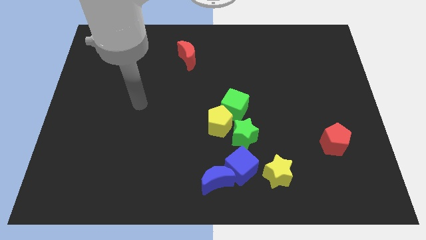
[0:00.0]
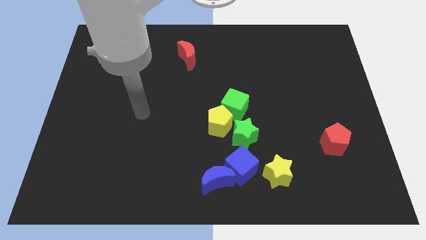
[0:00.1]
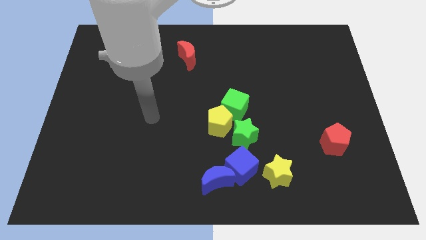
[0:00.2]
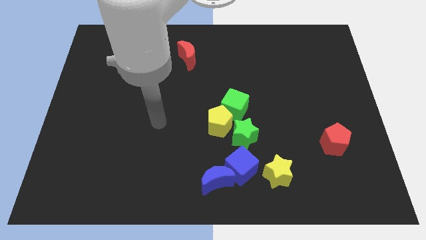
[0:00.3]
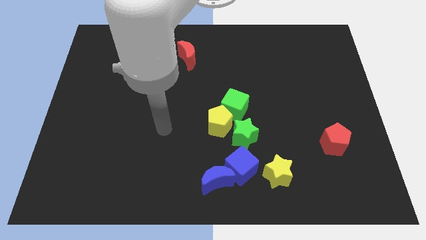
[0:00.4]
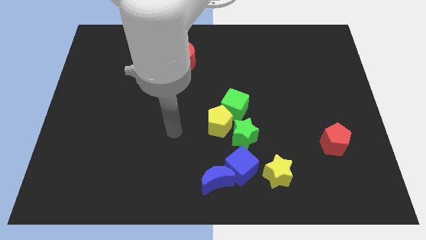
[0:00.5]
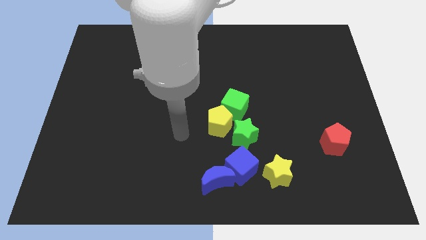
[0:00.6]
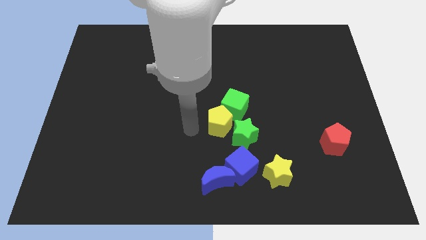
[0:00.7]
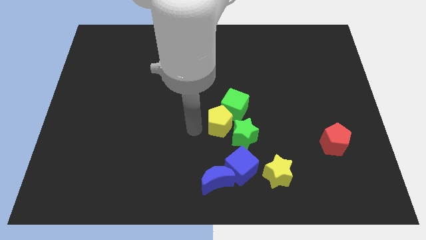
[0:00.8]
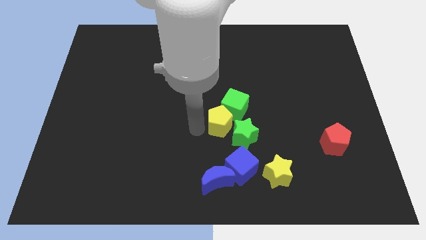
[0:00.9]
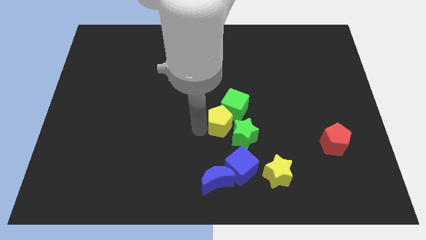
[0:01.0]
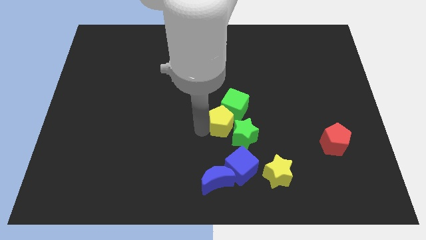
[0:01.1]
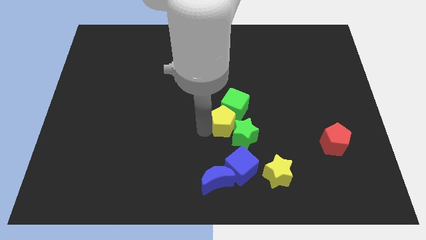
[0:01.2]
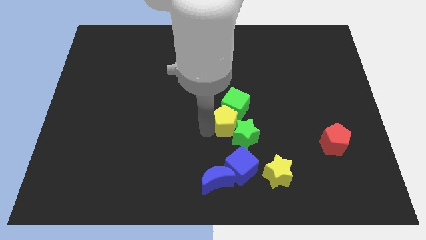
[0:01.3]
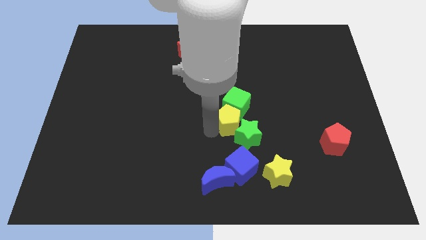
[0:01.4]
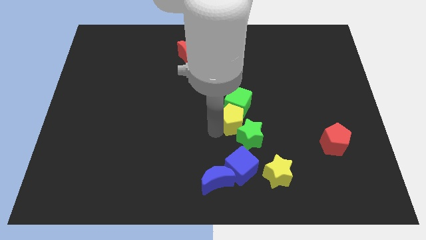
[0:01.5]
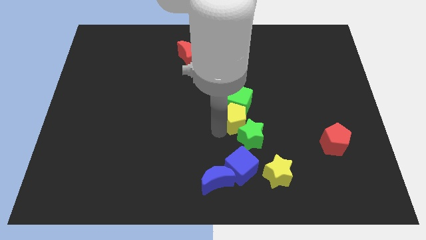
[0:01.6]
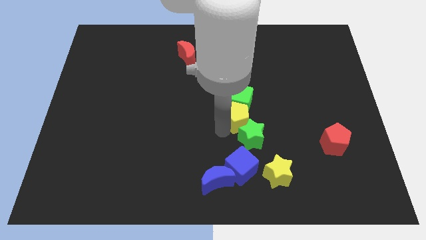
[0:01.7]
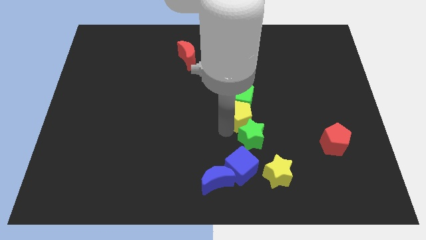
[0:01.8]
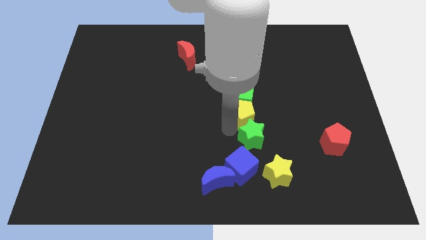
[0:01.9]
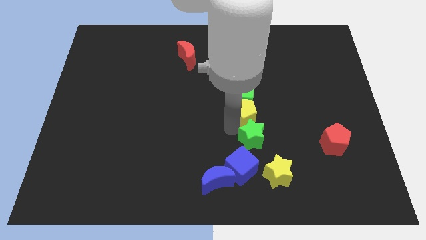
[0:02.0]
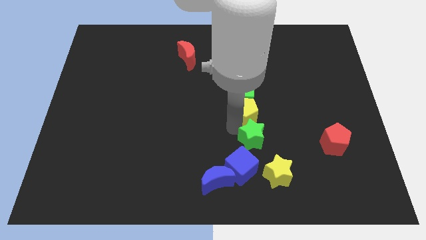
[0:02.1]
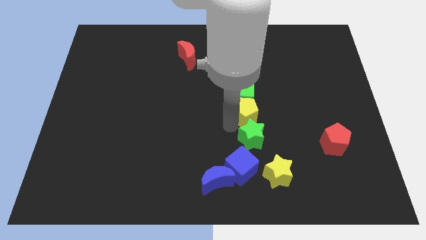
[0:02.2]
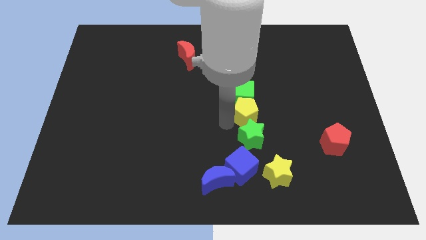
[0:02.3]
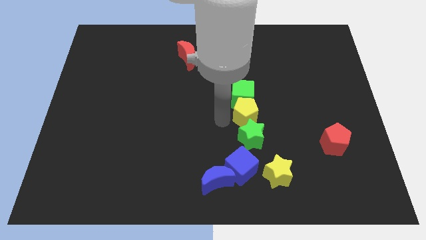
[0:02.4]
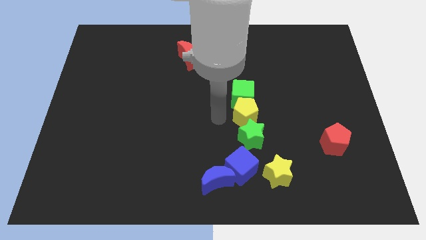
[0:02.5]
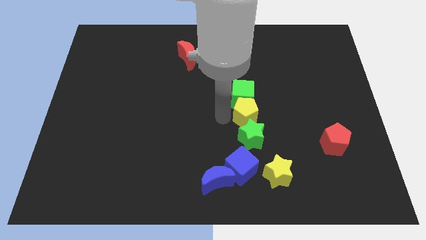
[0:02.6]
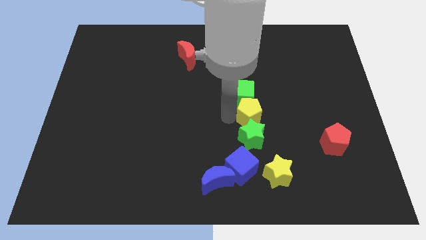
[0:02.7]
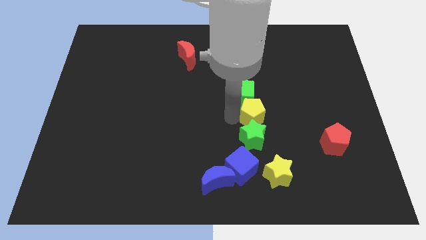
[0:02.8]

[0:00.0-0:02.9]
move the yellow pentagon upwards and then right somewhat

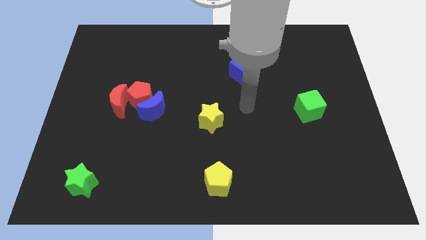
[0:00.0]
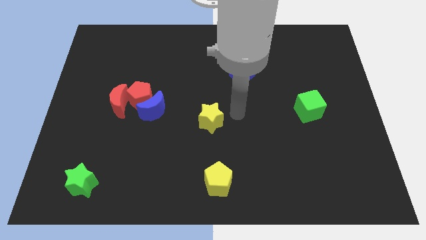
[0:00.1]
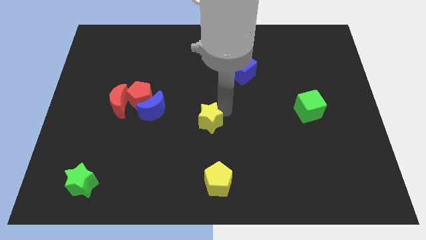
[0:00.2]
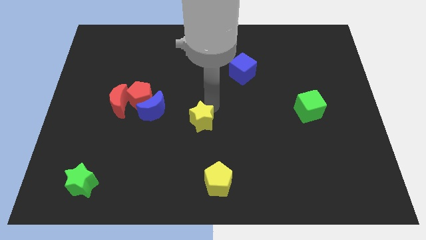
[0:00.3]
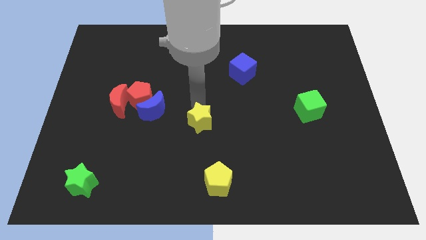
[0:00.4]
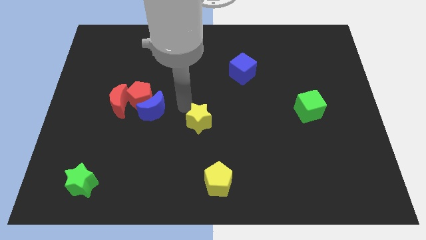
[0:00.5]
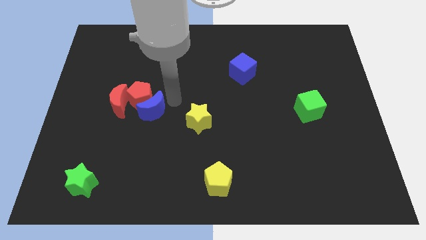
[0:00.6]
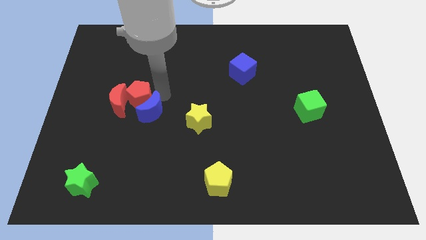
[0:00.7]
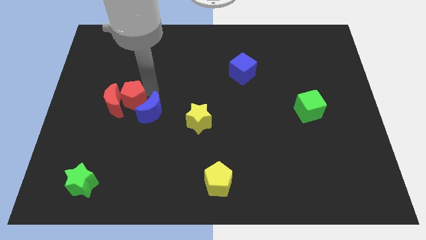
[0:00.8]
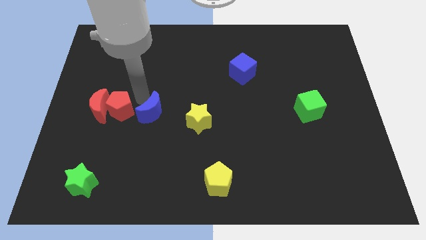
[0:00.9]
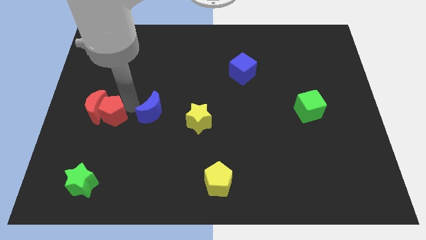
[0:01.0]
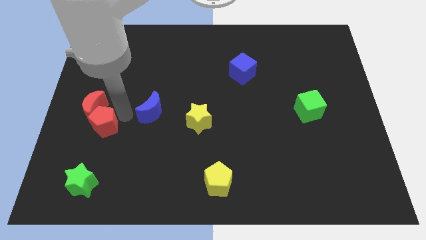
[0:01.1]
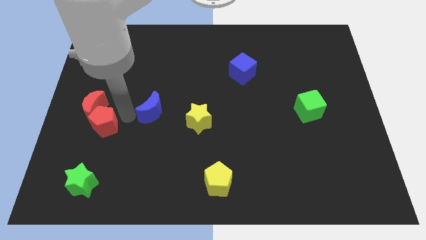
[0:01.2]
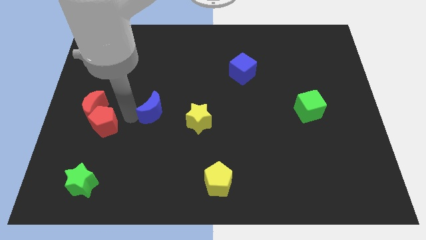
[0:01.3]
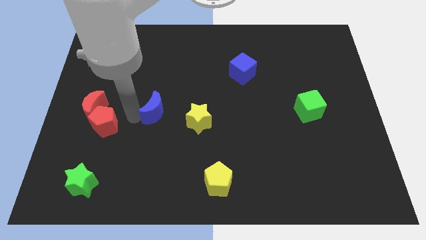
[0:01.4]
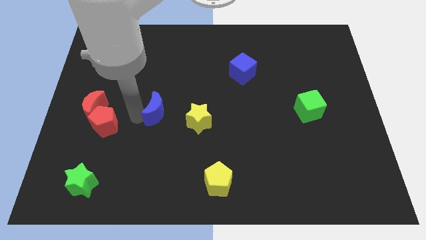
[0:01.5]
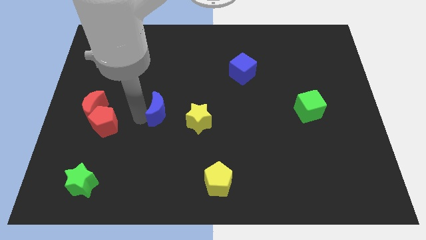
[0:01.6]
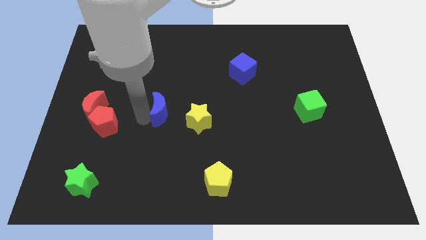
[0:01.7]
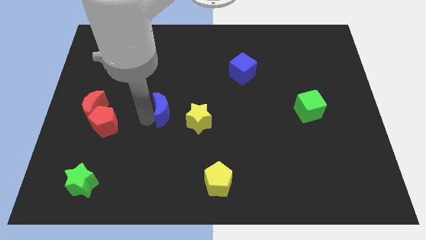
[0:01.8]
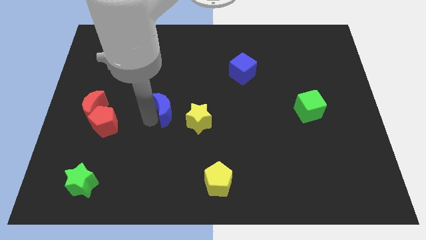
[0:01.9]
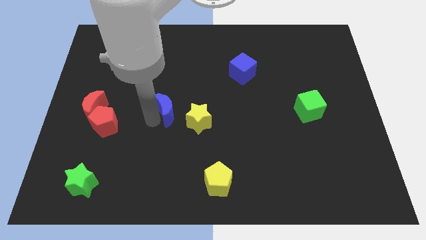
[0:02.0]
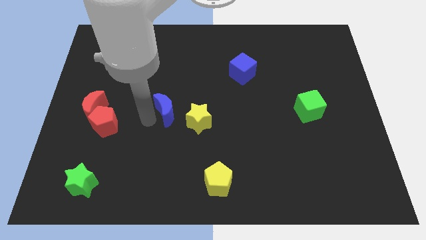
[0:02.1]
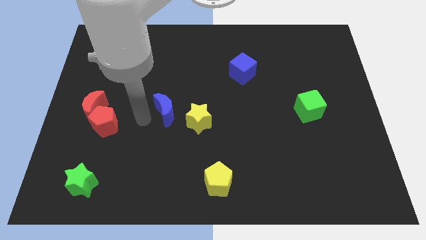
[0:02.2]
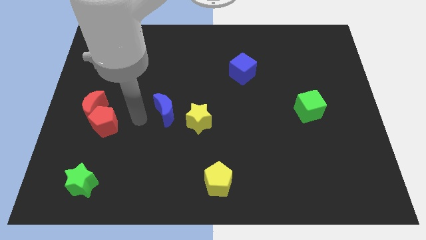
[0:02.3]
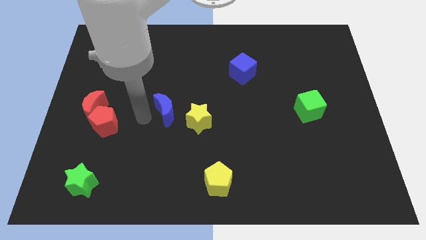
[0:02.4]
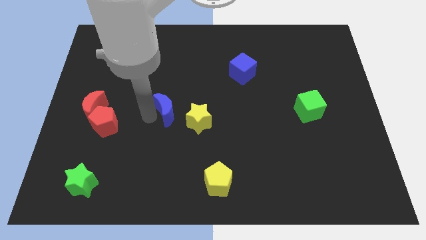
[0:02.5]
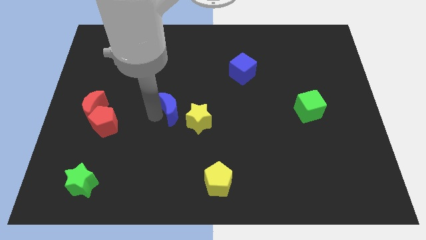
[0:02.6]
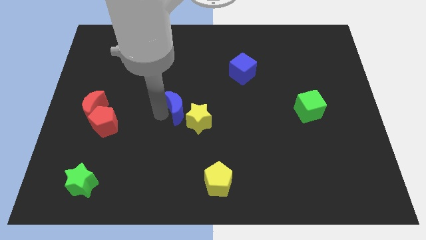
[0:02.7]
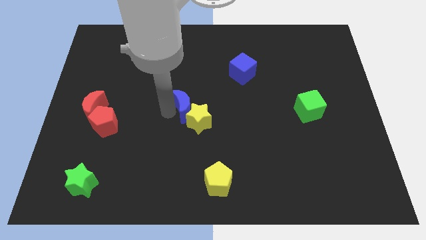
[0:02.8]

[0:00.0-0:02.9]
push the blue moon right a little

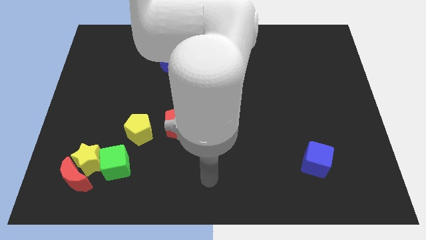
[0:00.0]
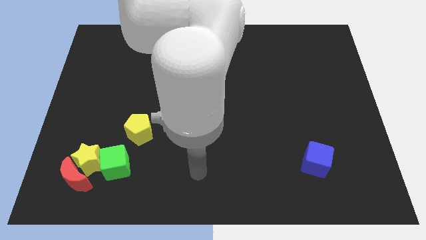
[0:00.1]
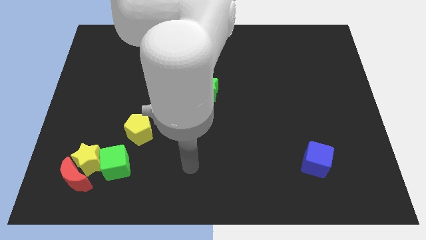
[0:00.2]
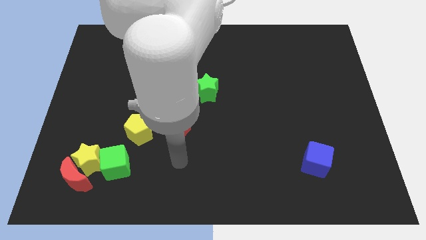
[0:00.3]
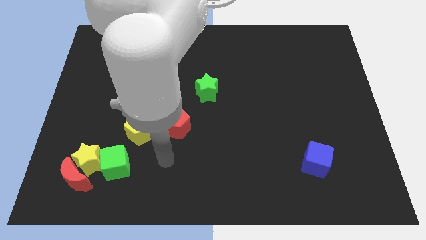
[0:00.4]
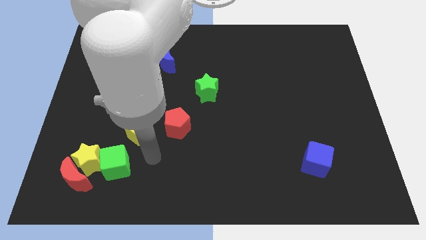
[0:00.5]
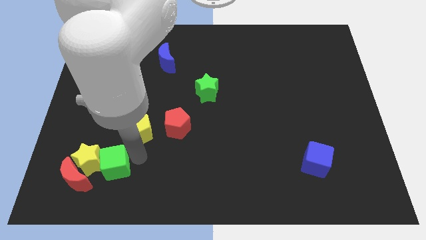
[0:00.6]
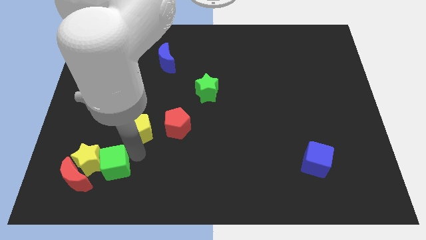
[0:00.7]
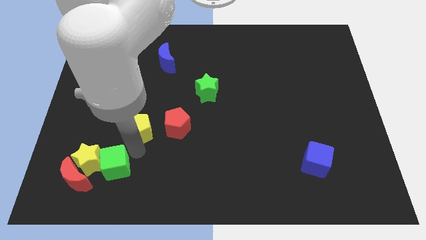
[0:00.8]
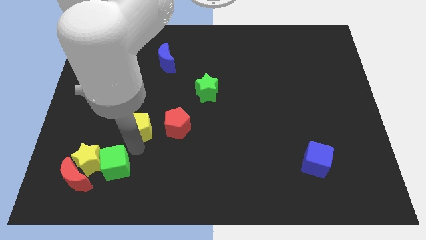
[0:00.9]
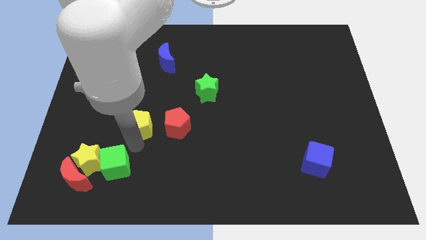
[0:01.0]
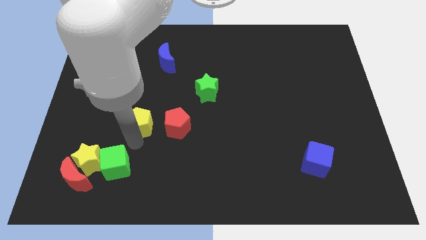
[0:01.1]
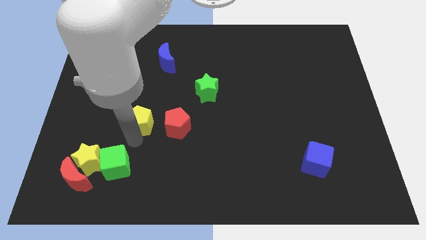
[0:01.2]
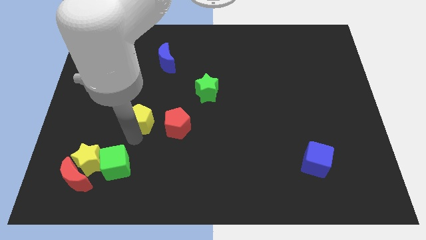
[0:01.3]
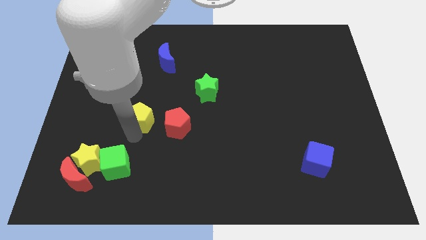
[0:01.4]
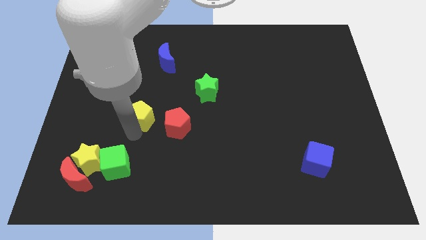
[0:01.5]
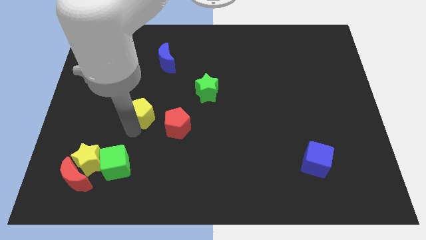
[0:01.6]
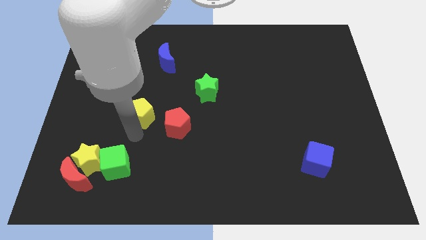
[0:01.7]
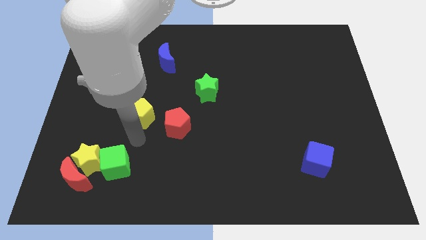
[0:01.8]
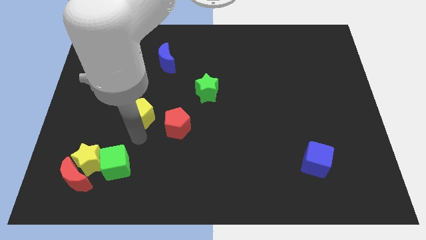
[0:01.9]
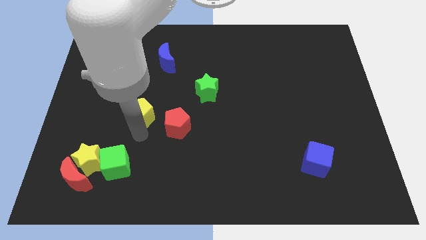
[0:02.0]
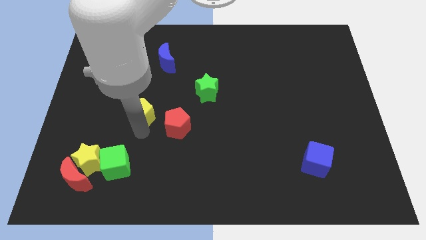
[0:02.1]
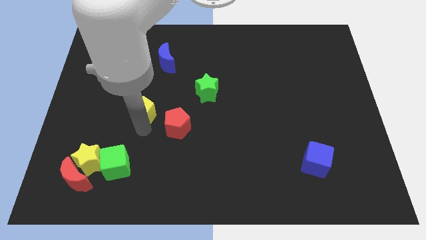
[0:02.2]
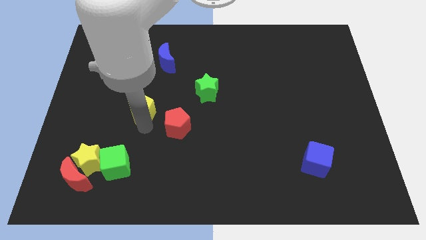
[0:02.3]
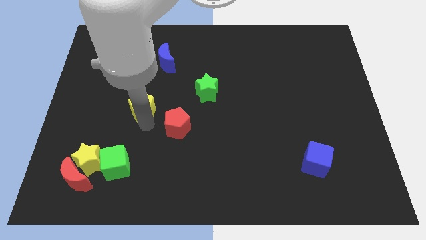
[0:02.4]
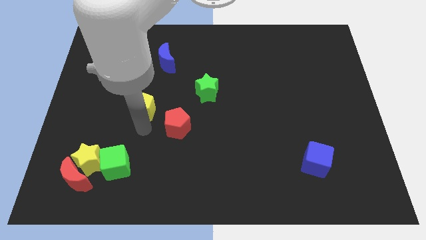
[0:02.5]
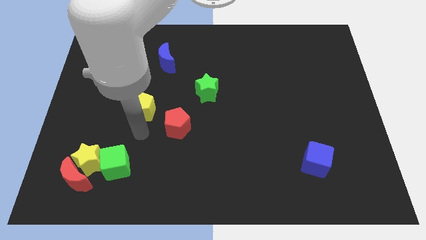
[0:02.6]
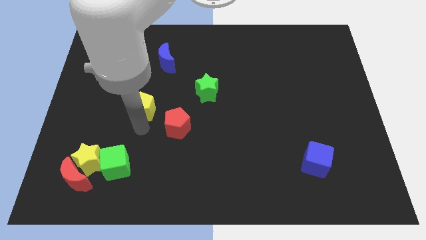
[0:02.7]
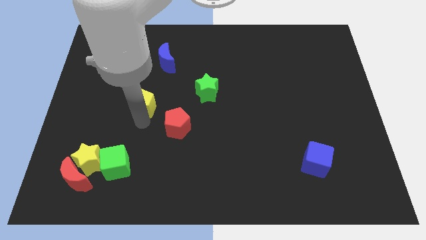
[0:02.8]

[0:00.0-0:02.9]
slightly slide the yellow pentagon upwards

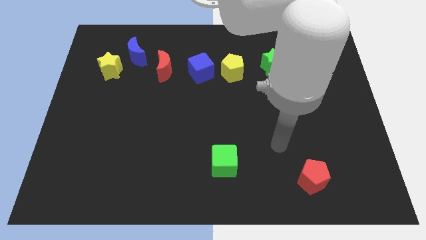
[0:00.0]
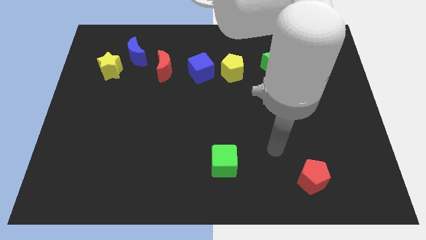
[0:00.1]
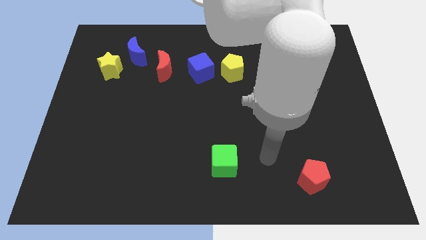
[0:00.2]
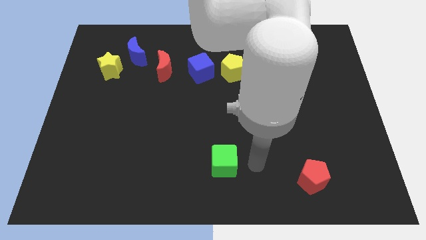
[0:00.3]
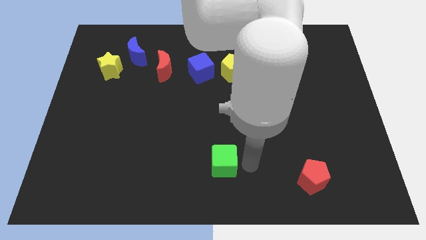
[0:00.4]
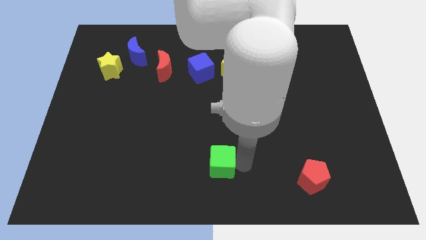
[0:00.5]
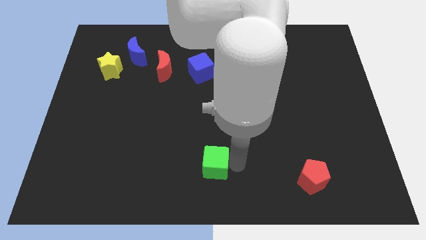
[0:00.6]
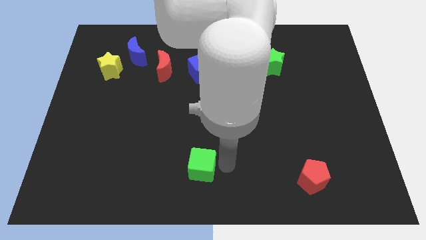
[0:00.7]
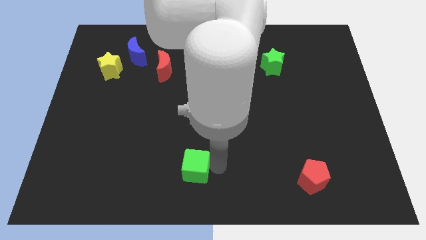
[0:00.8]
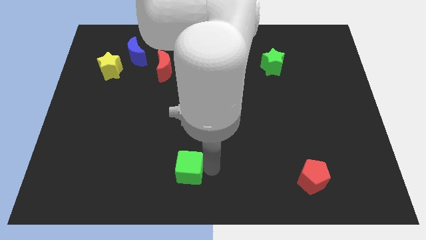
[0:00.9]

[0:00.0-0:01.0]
slightly push the green cube left
